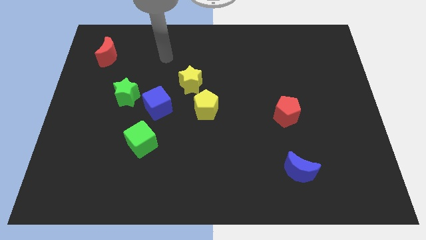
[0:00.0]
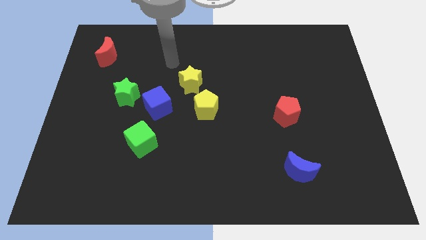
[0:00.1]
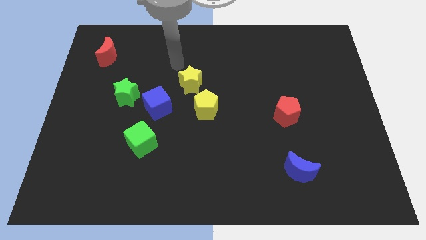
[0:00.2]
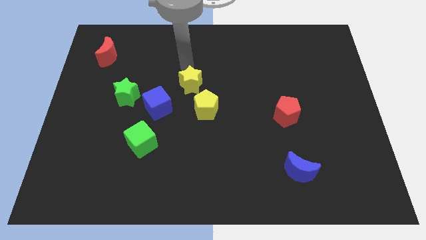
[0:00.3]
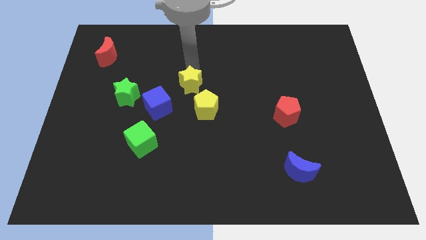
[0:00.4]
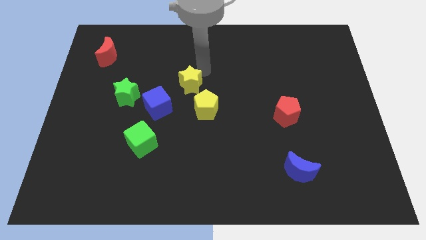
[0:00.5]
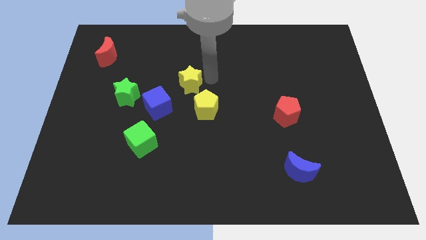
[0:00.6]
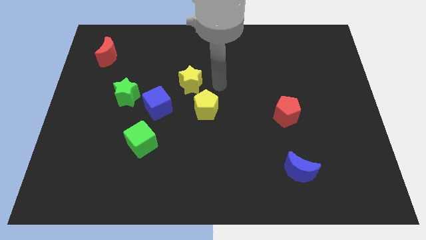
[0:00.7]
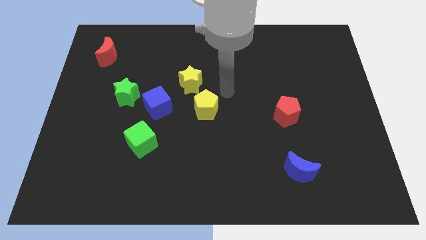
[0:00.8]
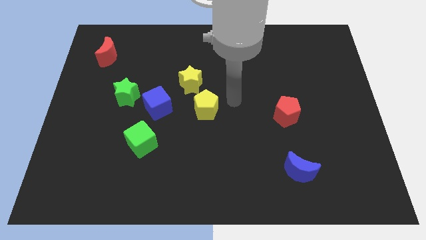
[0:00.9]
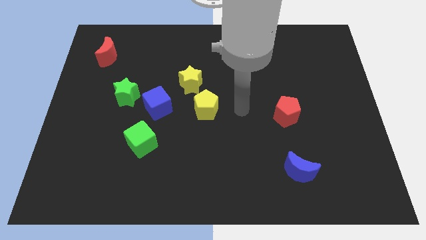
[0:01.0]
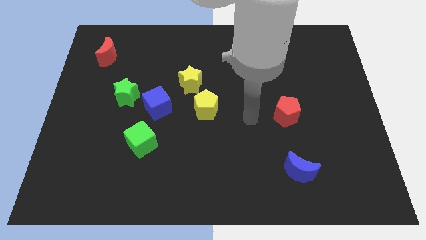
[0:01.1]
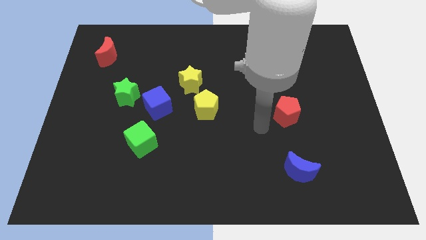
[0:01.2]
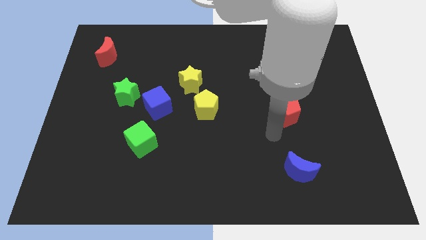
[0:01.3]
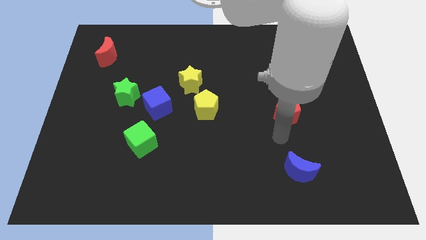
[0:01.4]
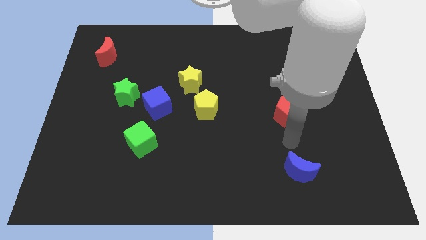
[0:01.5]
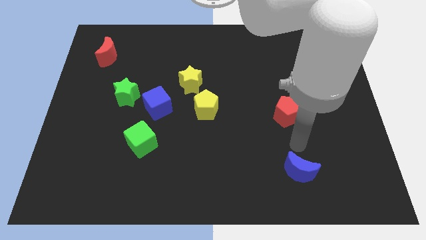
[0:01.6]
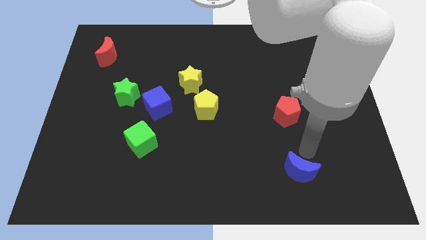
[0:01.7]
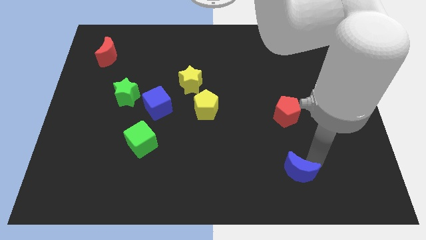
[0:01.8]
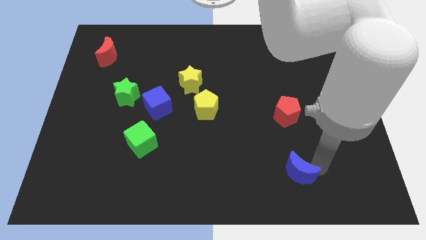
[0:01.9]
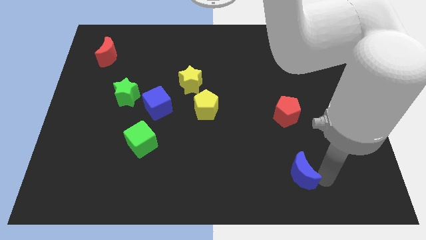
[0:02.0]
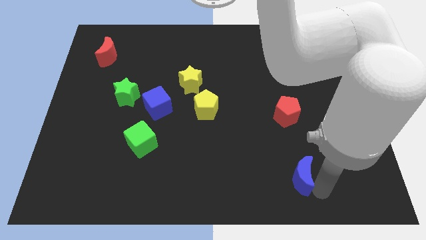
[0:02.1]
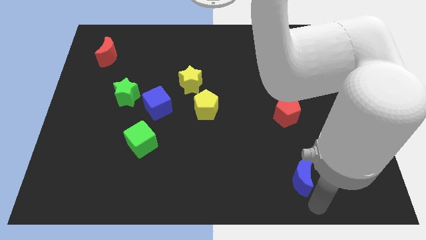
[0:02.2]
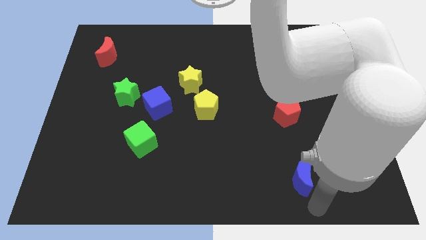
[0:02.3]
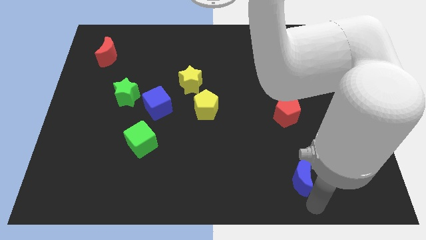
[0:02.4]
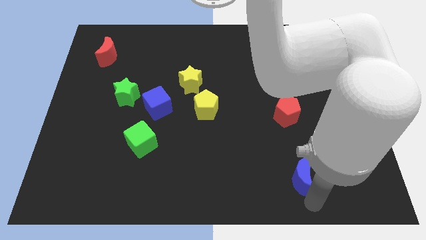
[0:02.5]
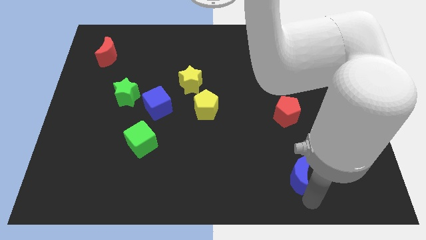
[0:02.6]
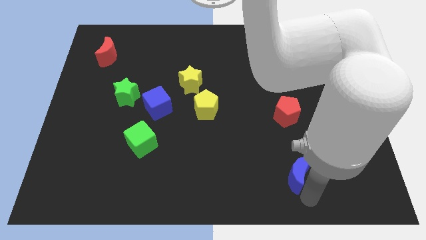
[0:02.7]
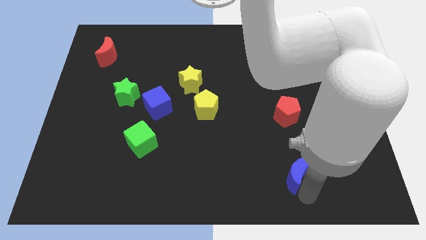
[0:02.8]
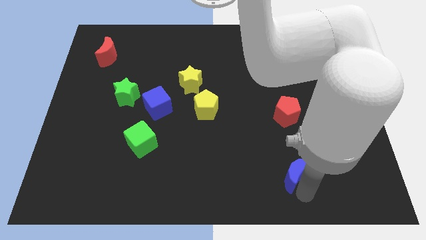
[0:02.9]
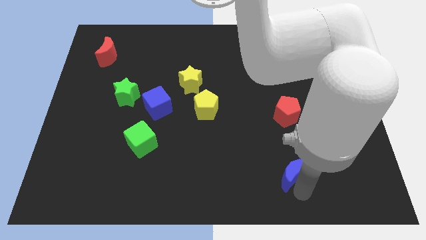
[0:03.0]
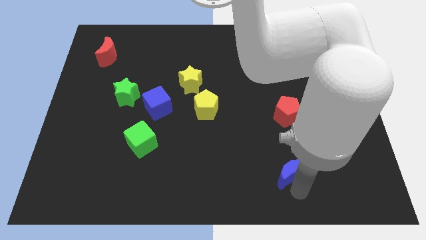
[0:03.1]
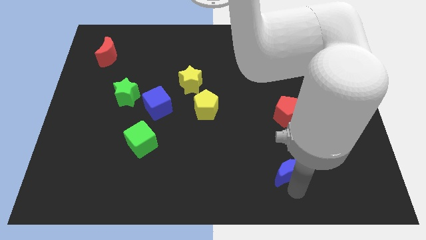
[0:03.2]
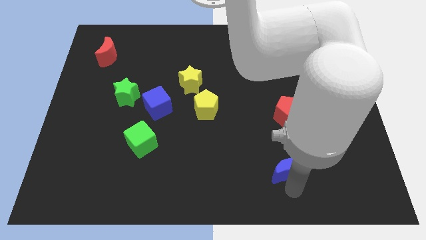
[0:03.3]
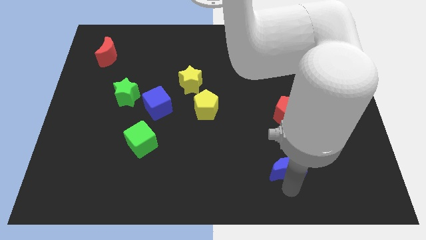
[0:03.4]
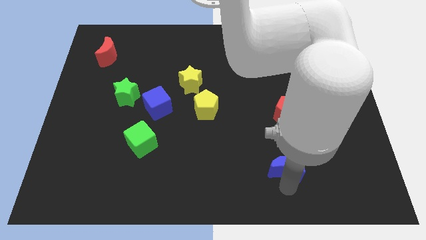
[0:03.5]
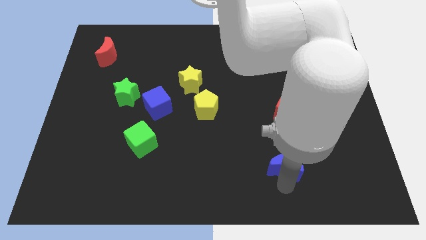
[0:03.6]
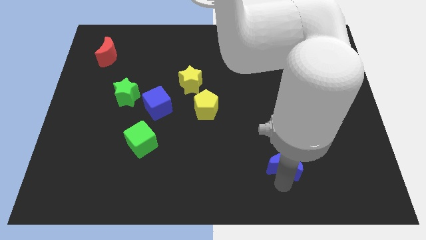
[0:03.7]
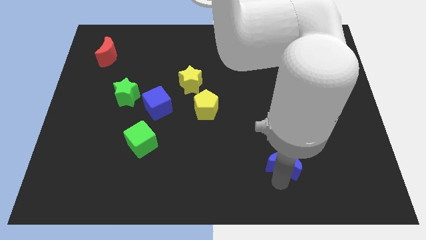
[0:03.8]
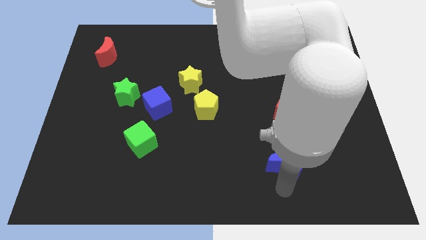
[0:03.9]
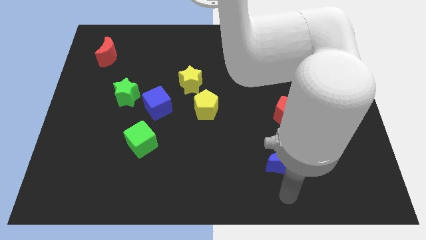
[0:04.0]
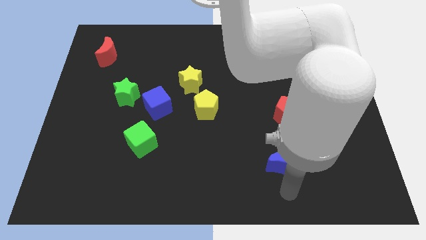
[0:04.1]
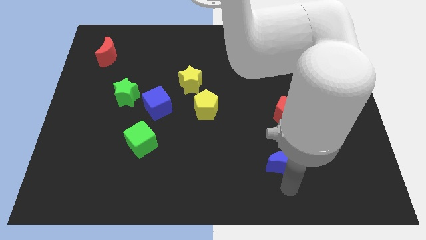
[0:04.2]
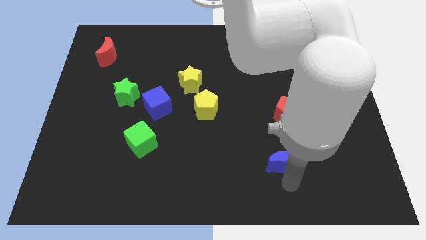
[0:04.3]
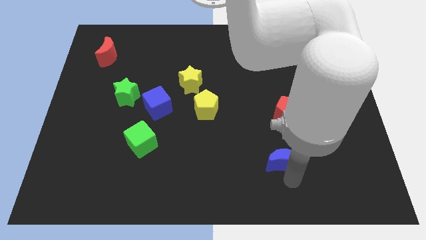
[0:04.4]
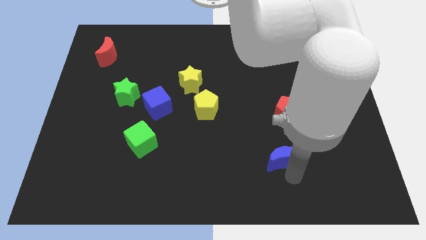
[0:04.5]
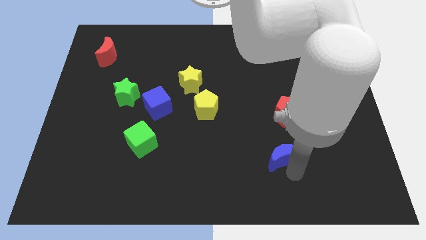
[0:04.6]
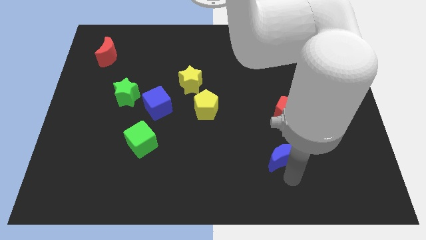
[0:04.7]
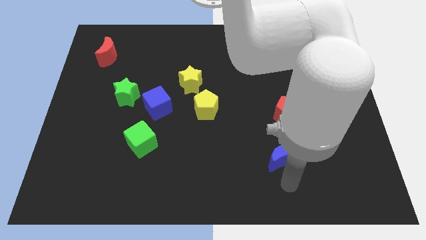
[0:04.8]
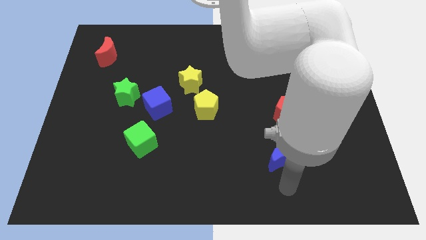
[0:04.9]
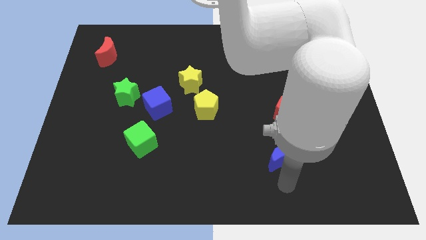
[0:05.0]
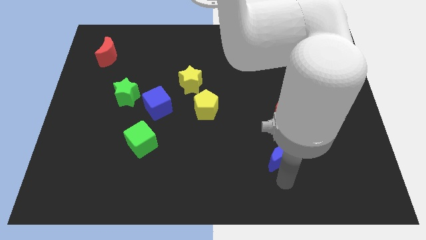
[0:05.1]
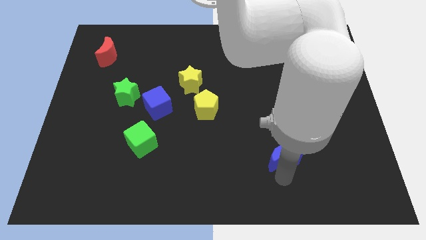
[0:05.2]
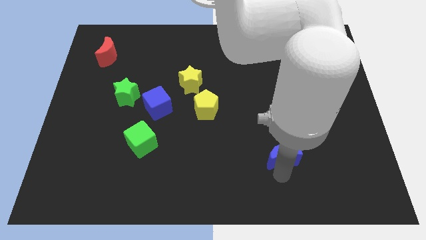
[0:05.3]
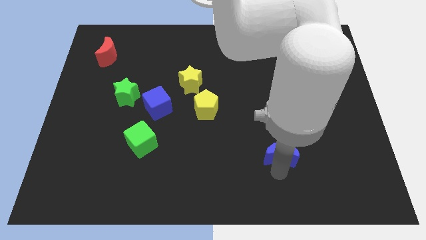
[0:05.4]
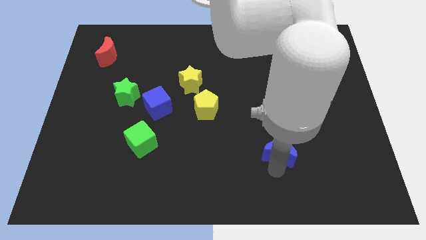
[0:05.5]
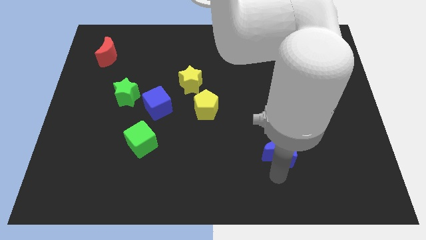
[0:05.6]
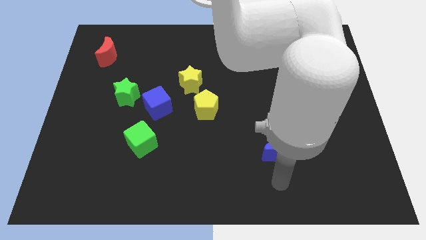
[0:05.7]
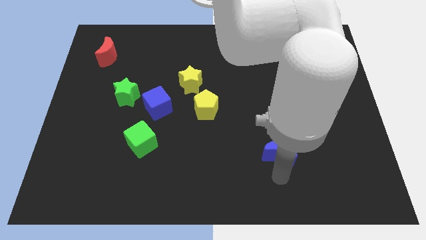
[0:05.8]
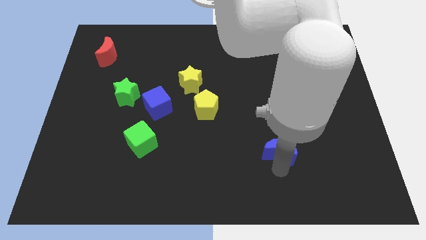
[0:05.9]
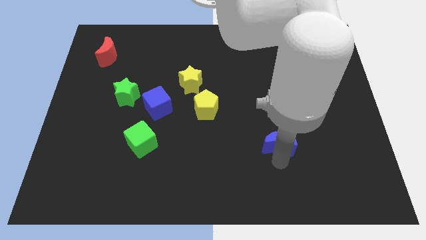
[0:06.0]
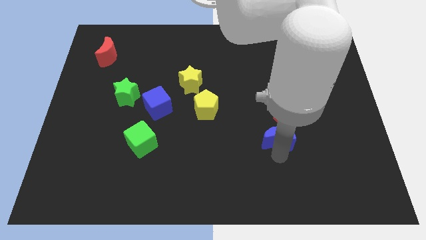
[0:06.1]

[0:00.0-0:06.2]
move the blue moon somewhat up

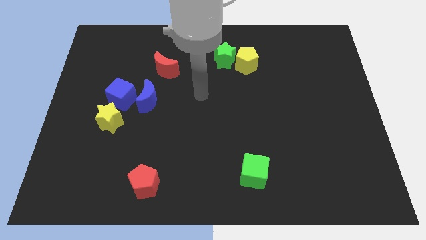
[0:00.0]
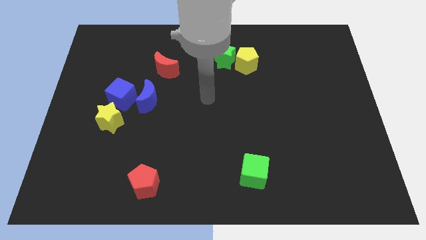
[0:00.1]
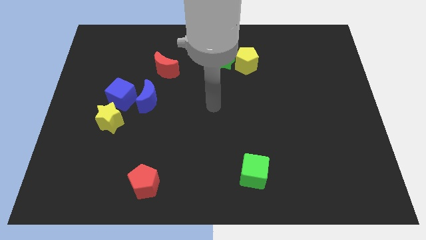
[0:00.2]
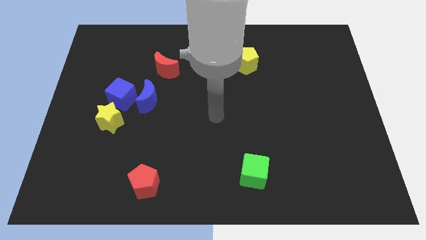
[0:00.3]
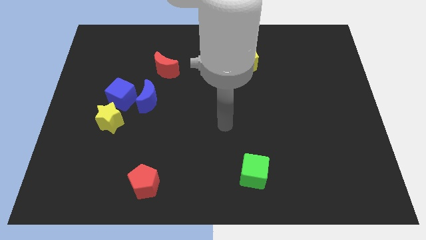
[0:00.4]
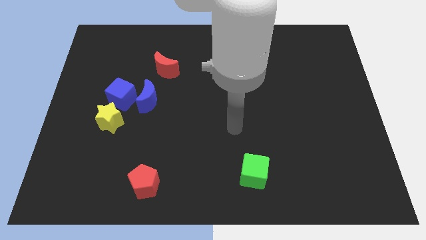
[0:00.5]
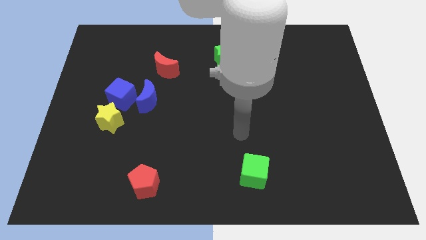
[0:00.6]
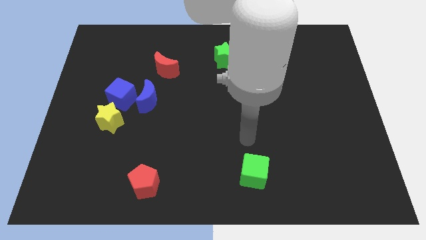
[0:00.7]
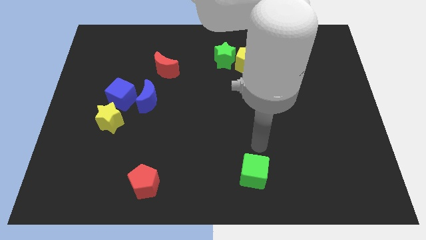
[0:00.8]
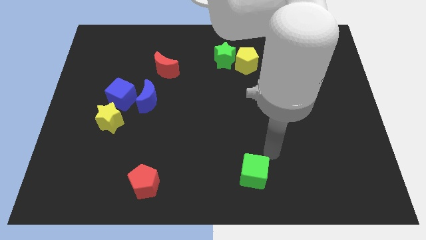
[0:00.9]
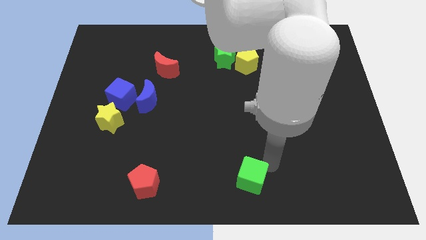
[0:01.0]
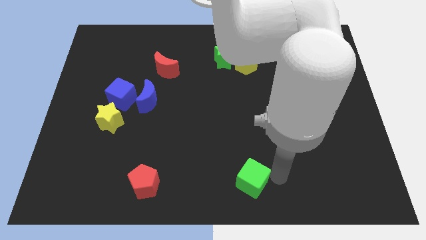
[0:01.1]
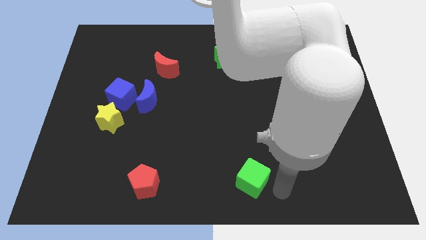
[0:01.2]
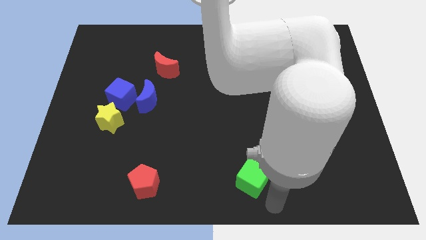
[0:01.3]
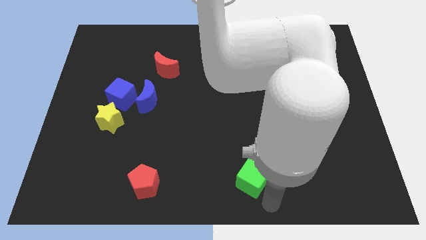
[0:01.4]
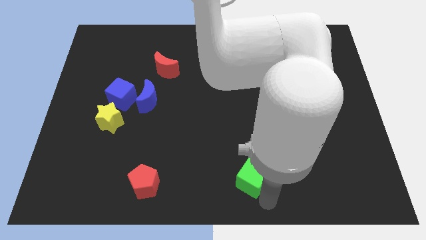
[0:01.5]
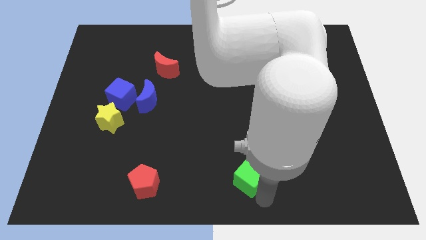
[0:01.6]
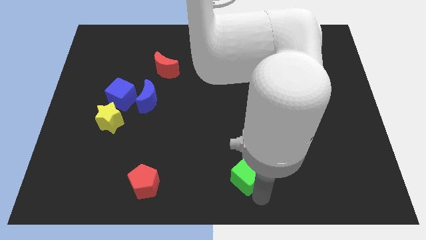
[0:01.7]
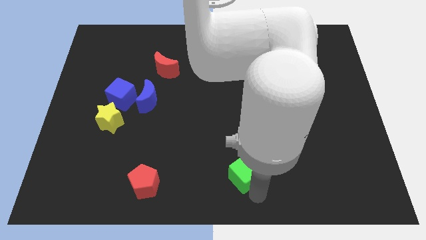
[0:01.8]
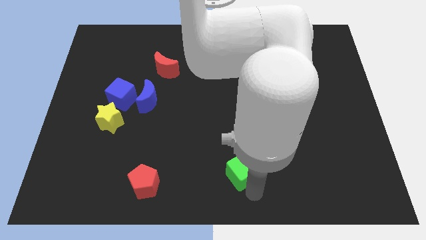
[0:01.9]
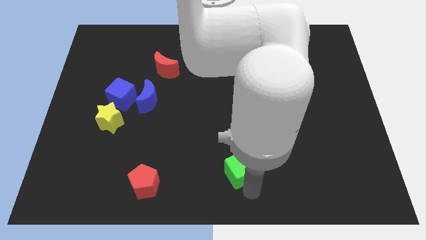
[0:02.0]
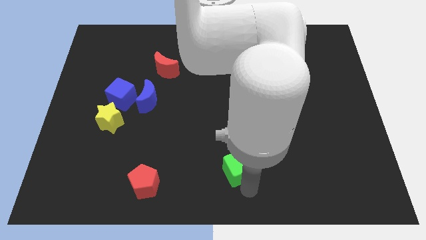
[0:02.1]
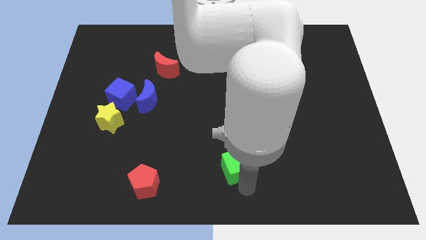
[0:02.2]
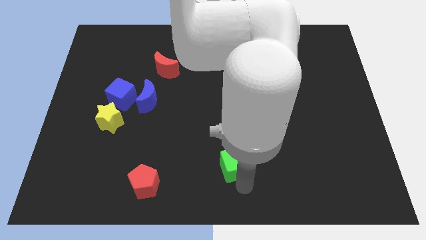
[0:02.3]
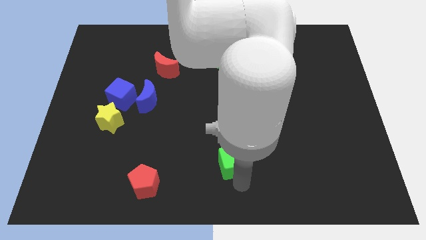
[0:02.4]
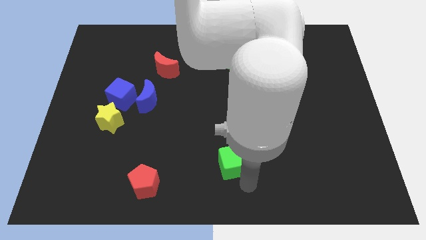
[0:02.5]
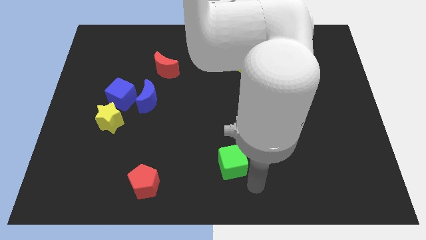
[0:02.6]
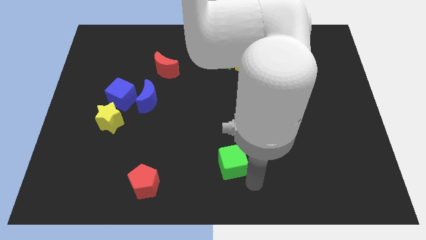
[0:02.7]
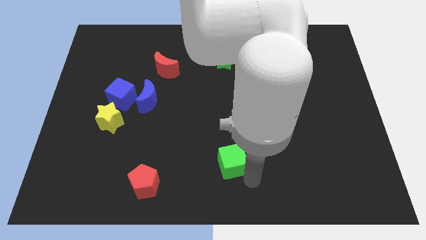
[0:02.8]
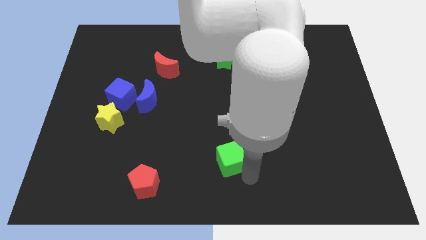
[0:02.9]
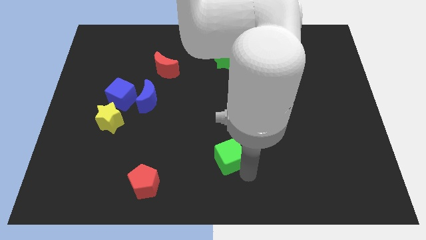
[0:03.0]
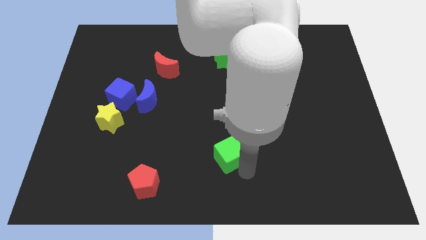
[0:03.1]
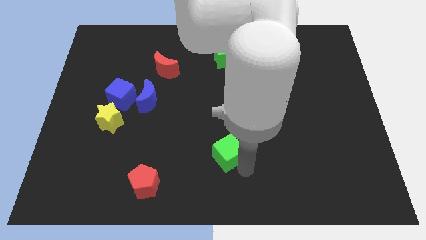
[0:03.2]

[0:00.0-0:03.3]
slightly move the green cube upwards and to the left diagonally
